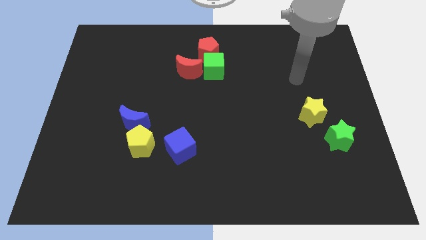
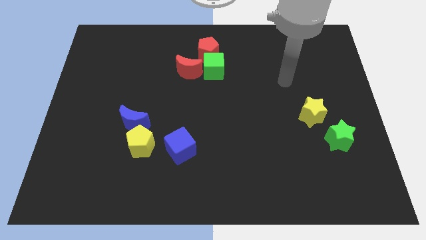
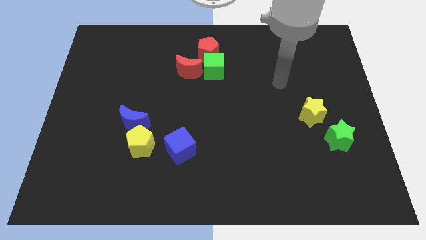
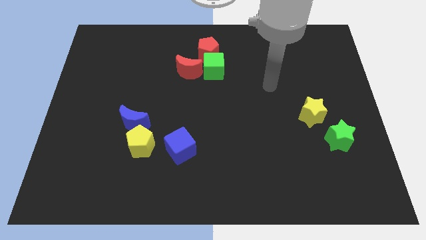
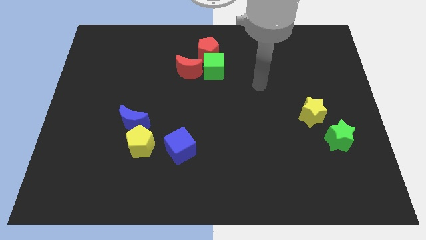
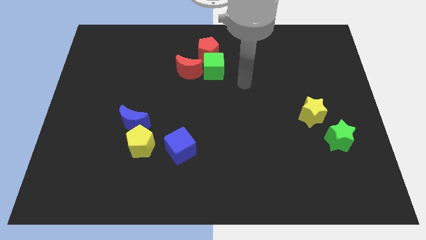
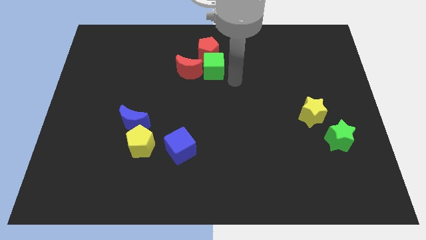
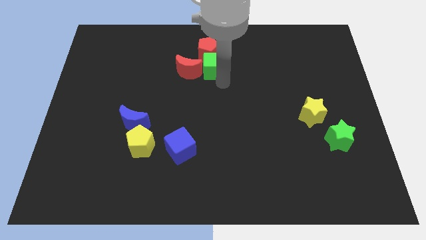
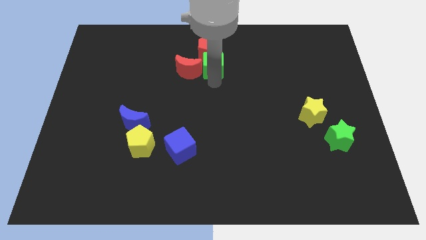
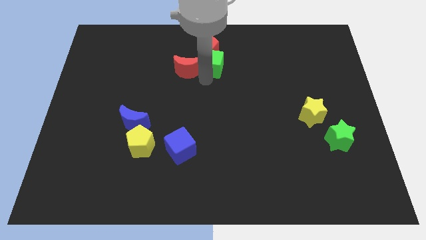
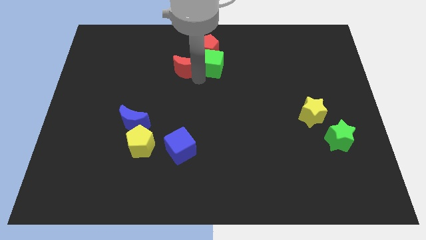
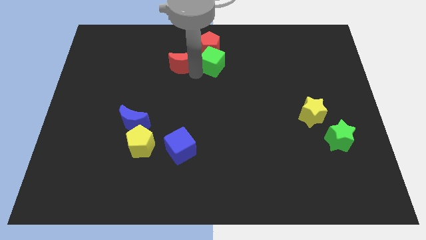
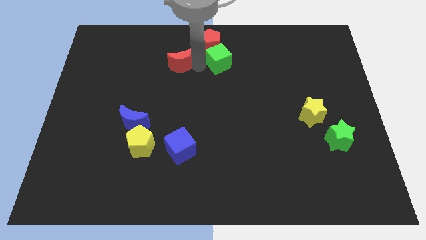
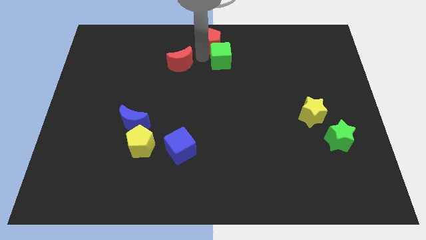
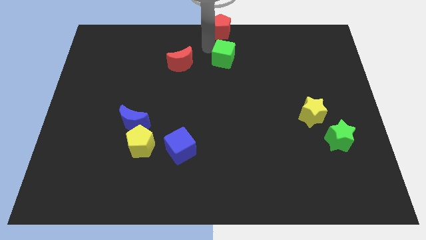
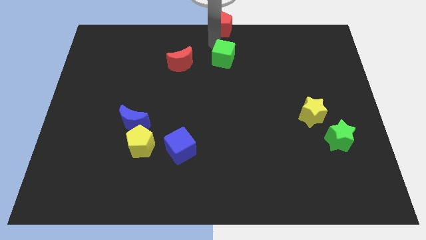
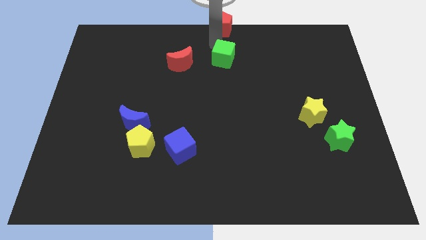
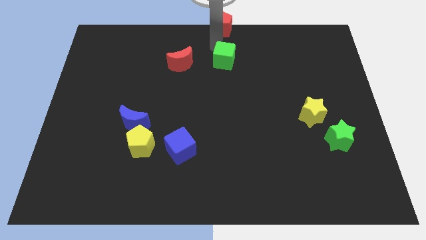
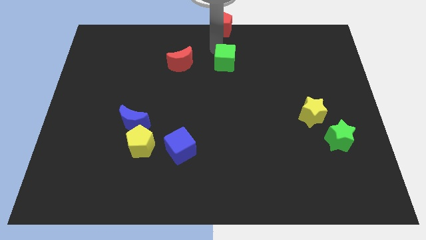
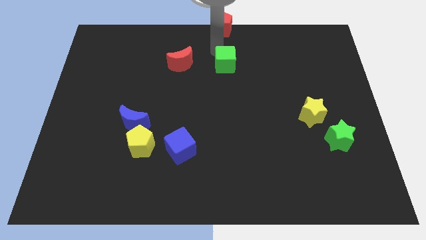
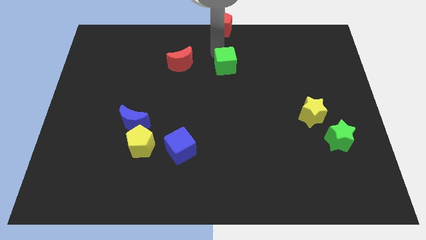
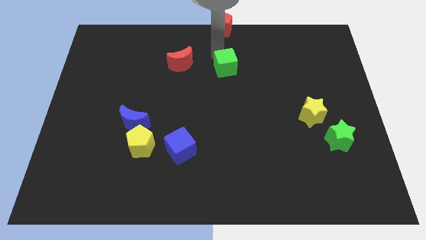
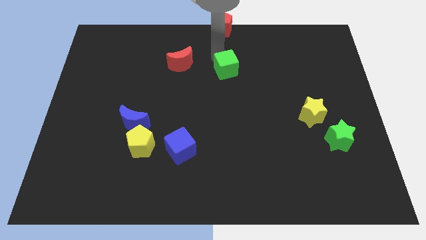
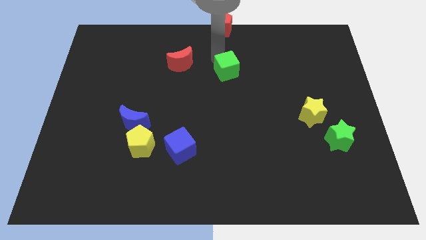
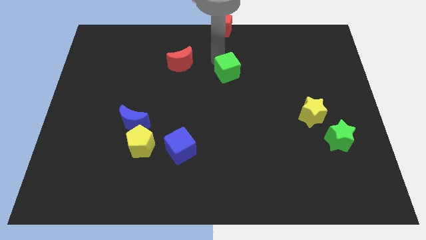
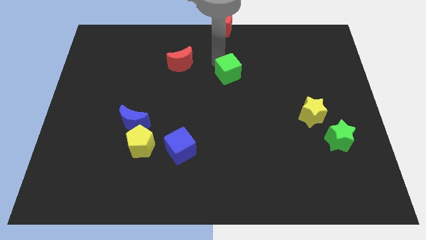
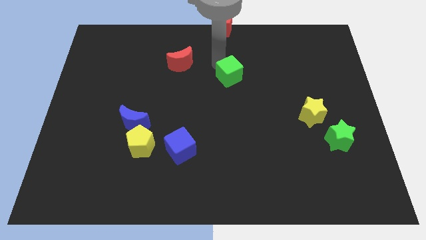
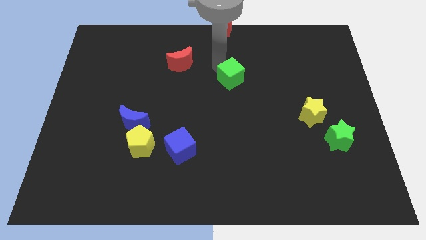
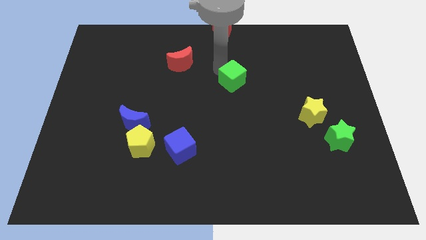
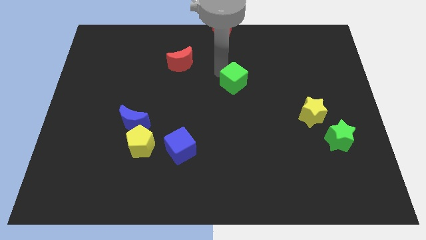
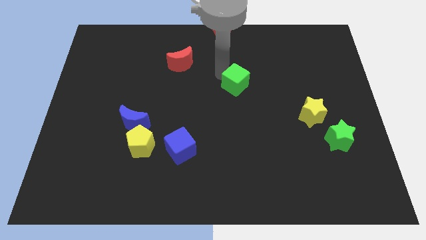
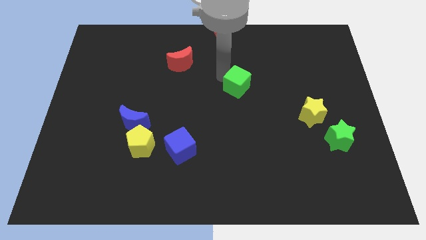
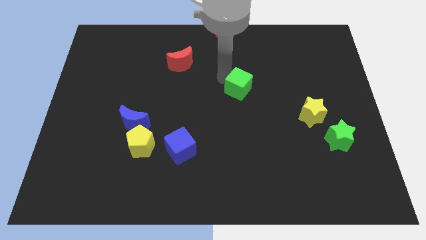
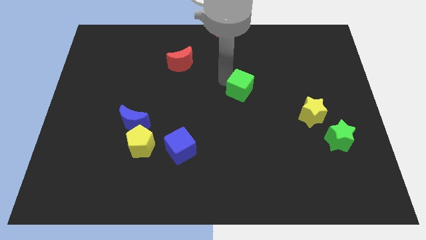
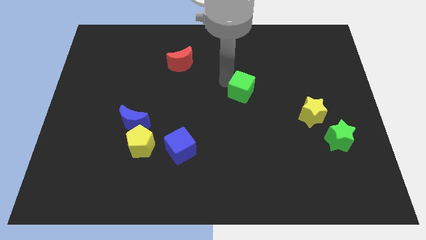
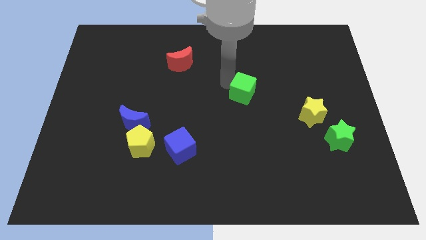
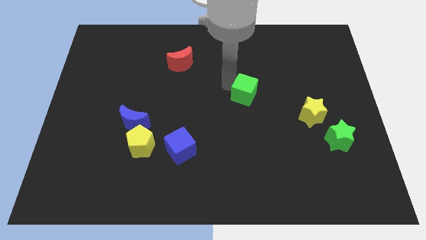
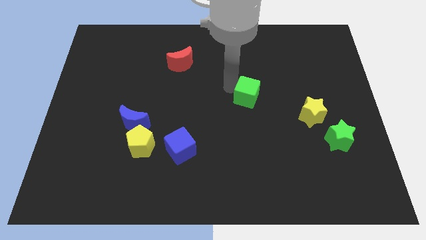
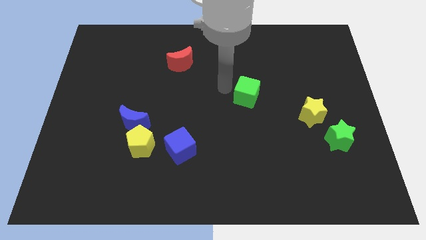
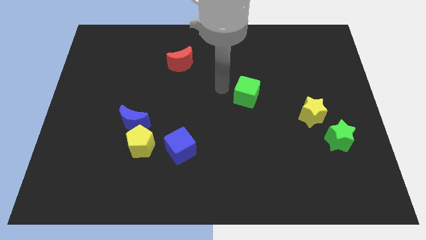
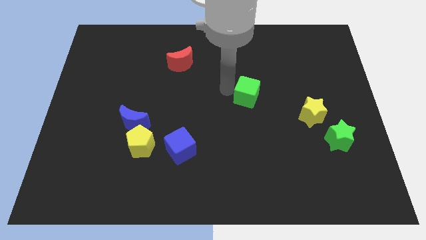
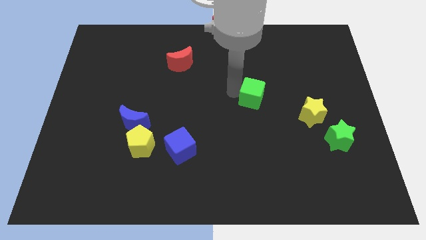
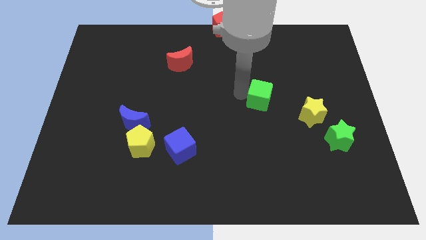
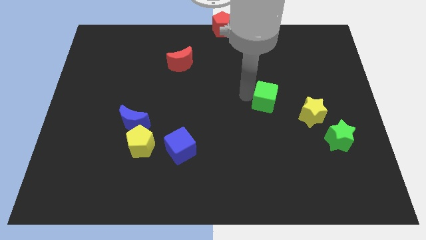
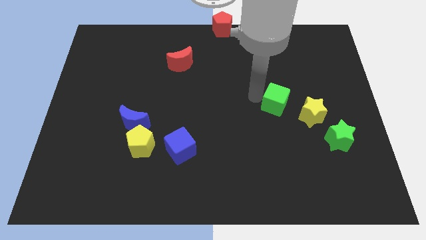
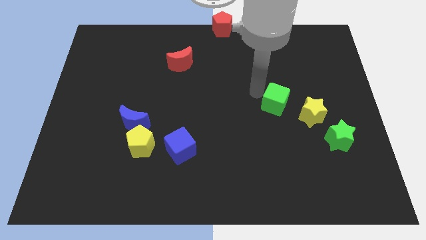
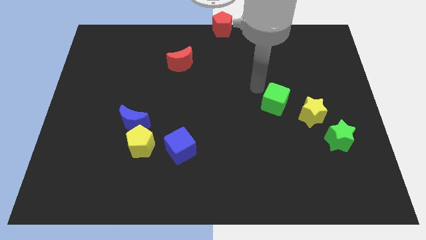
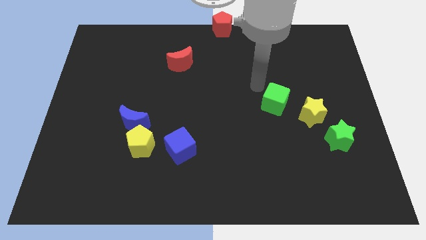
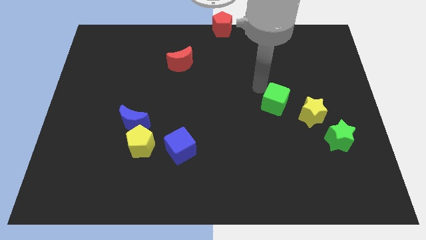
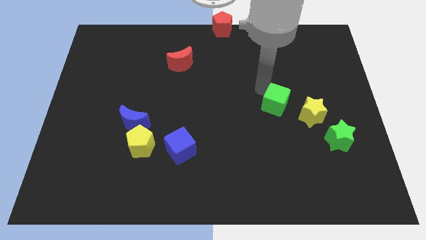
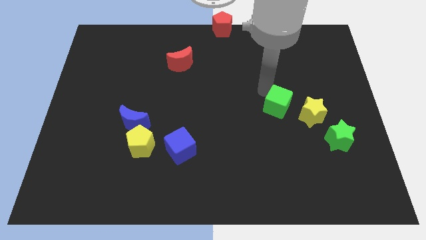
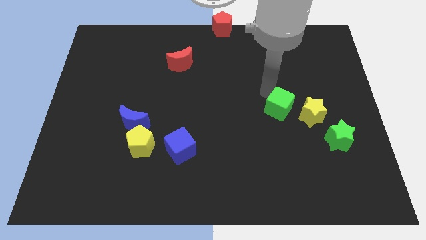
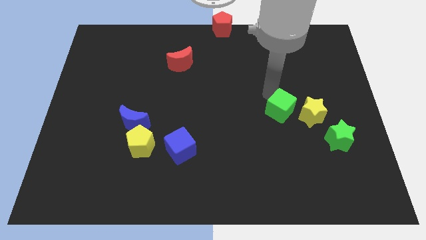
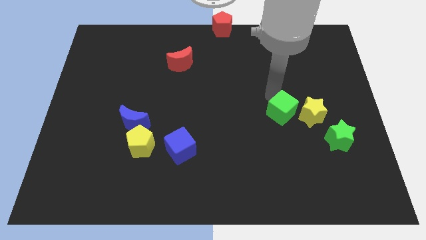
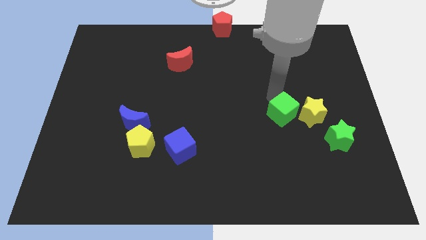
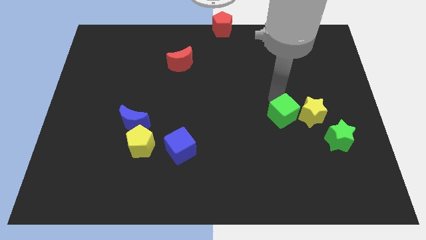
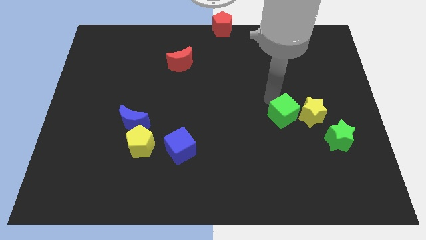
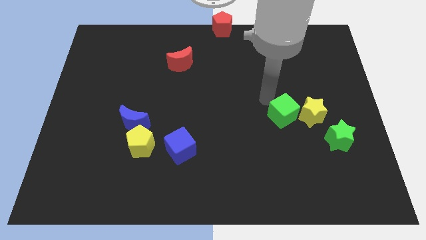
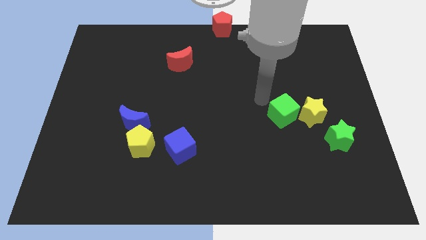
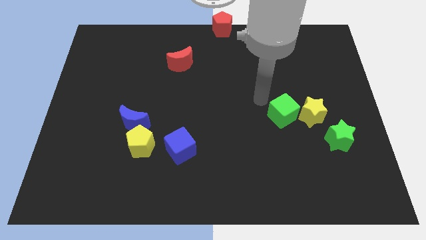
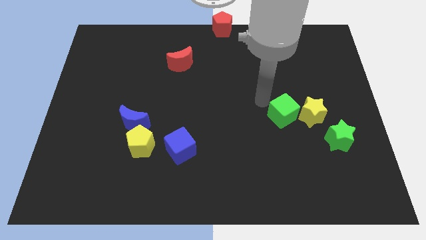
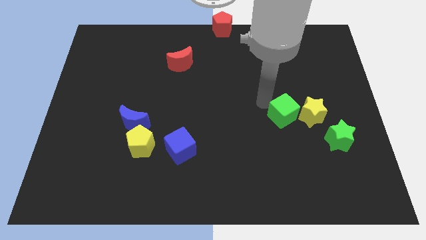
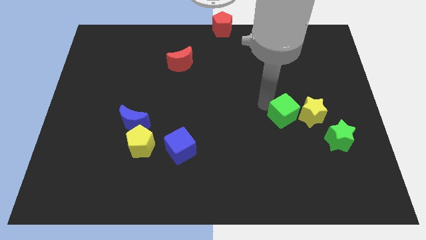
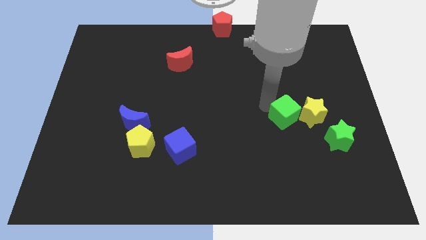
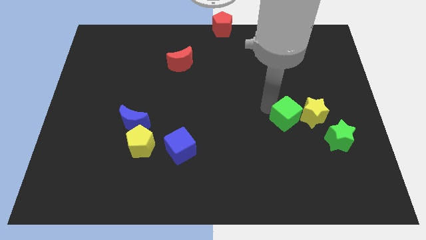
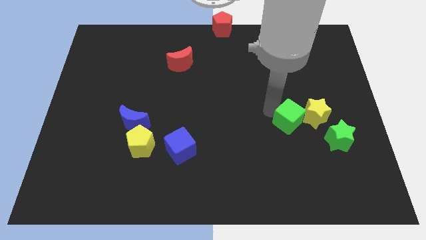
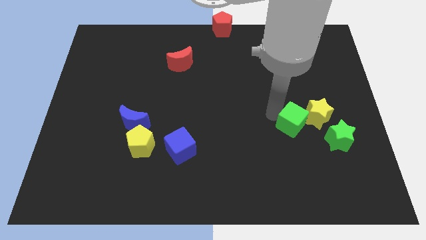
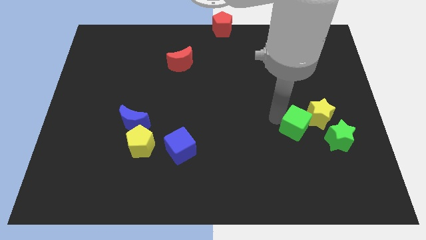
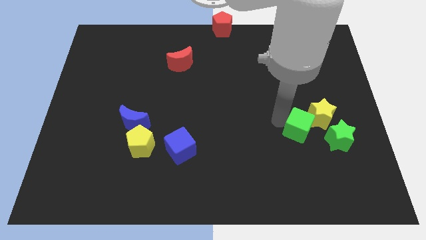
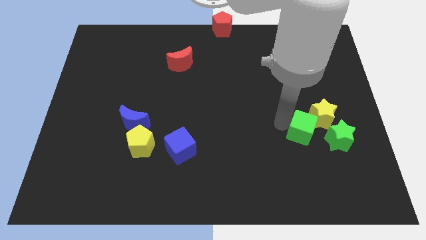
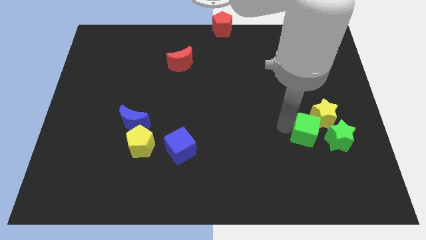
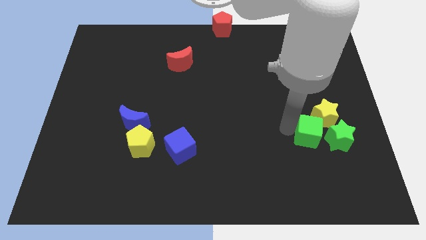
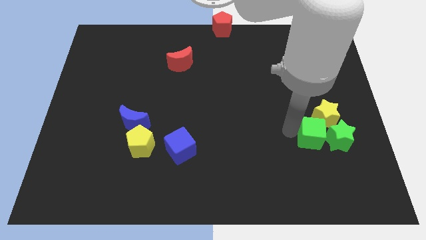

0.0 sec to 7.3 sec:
put the green cube towards the green star
